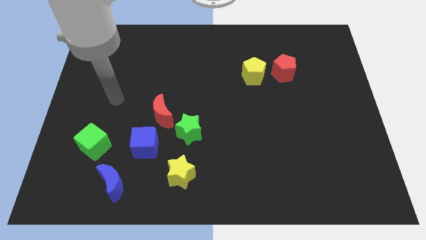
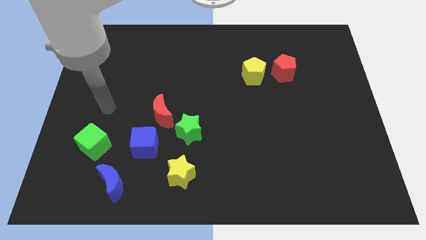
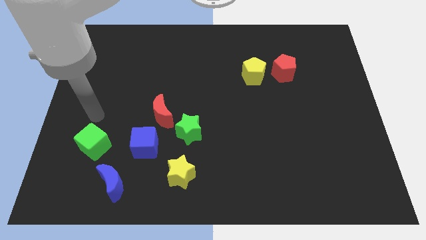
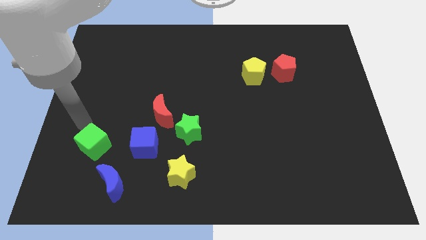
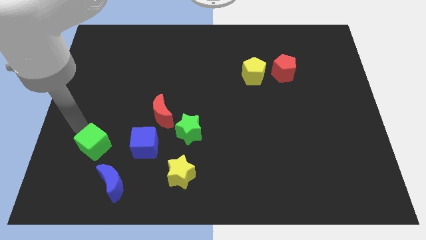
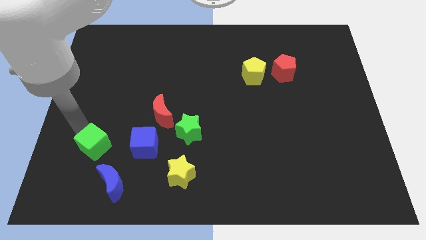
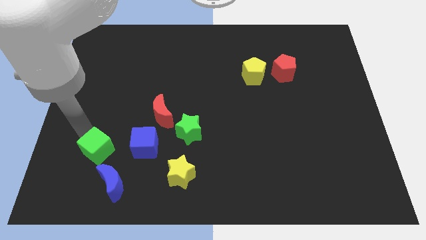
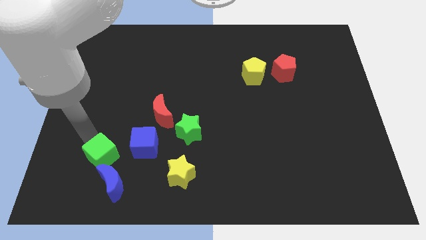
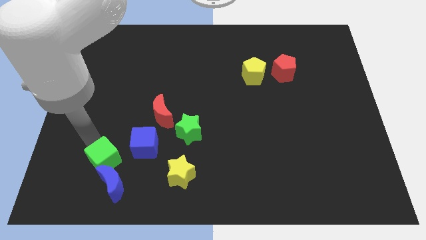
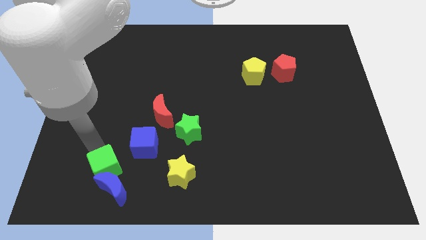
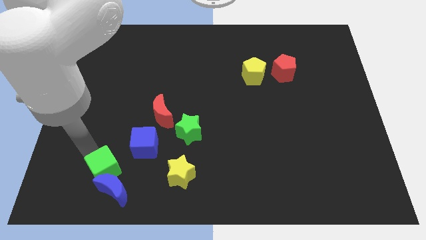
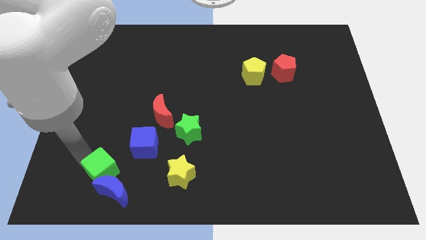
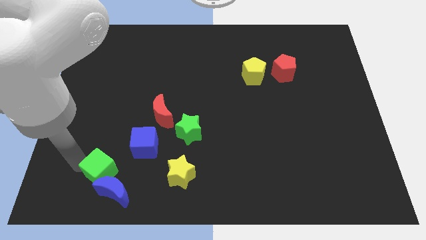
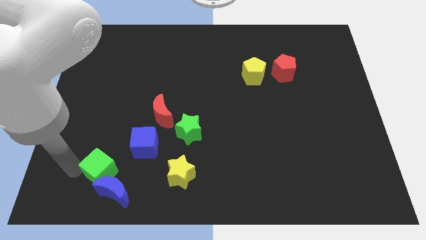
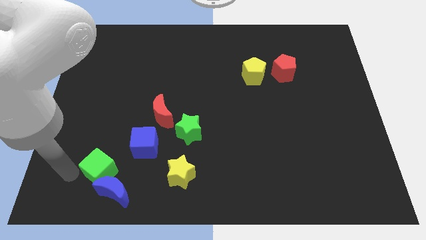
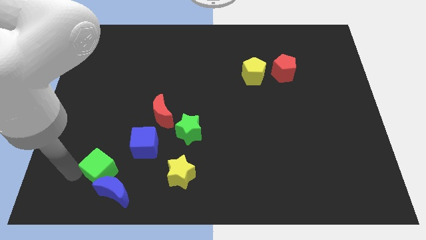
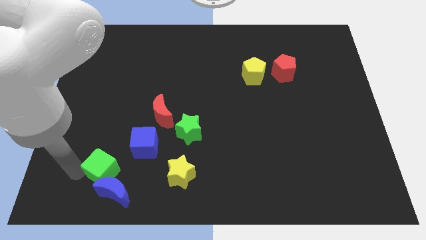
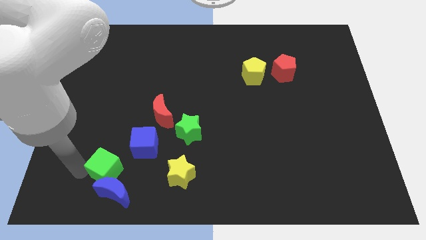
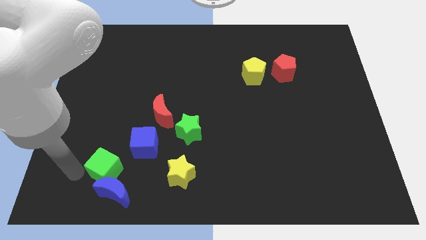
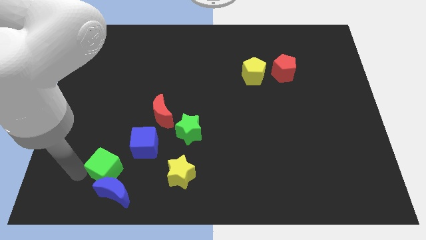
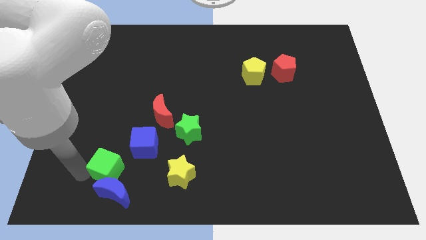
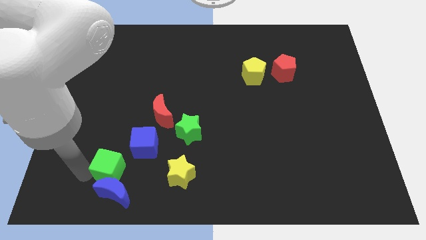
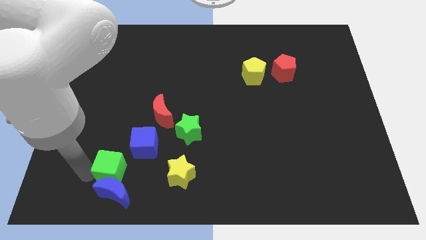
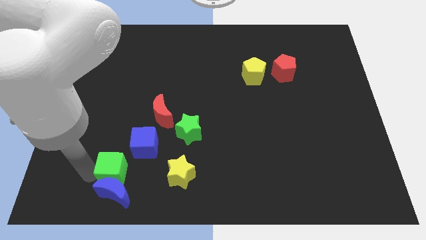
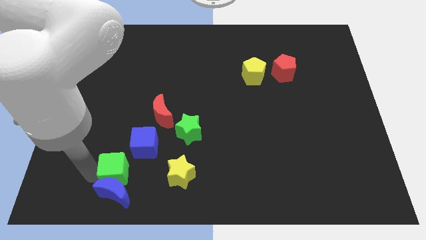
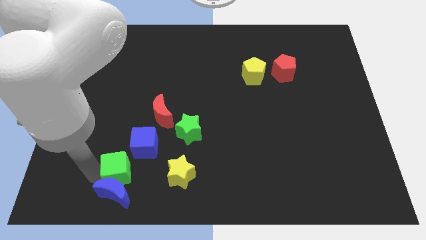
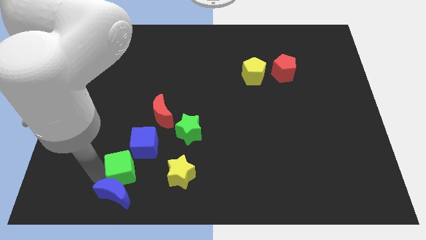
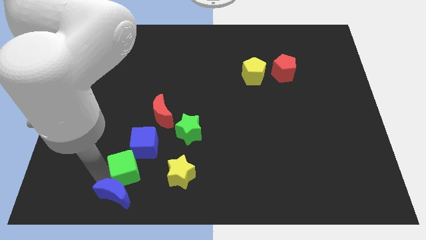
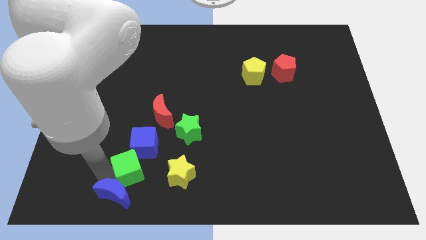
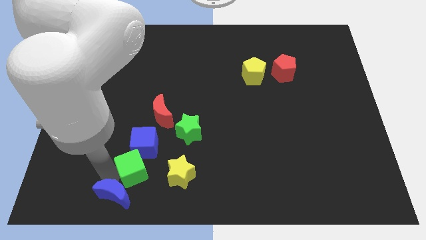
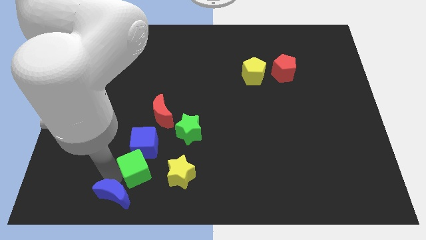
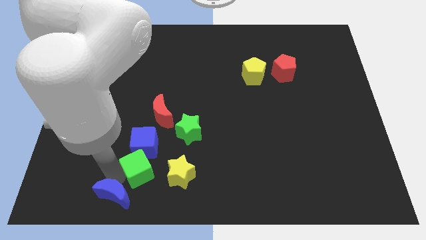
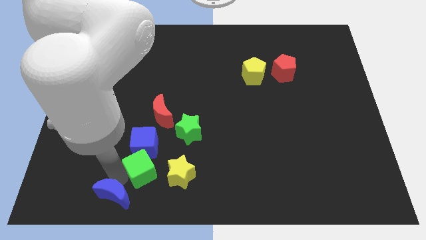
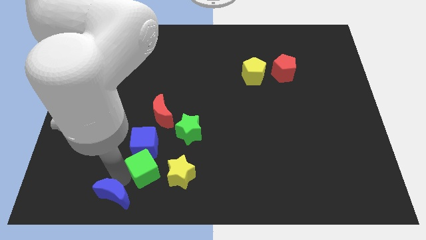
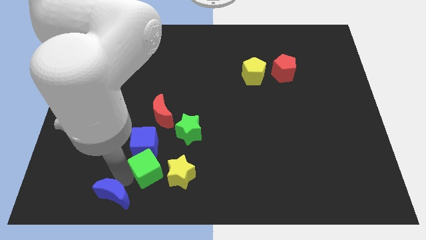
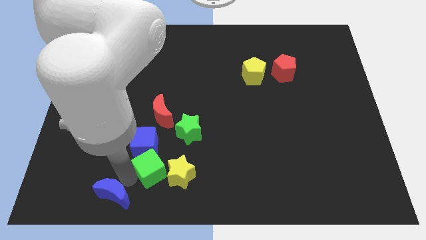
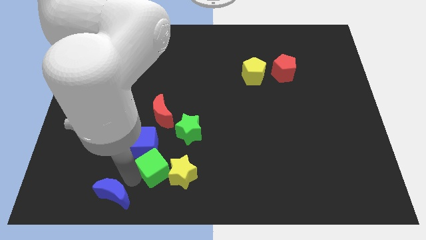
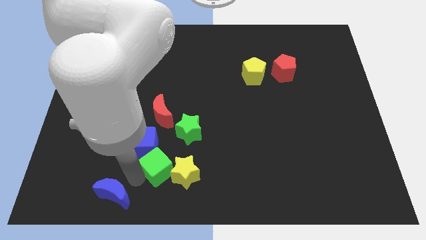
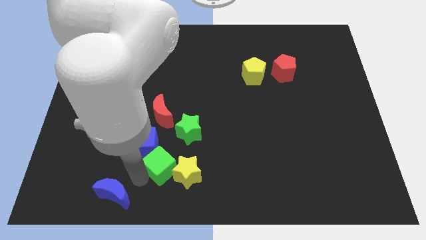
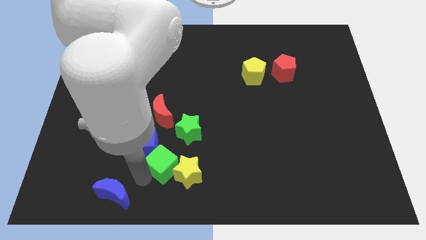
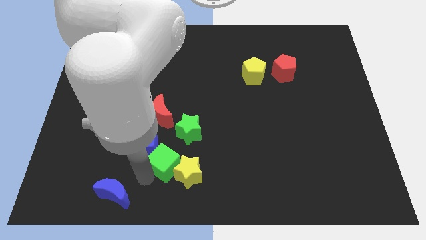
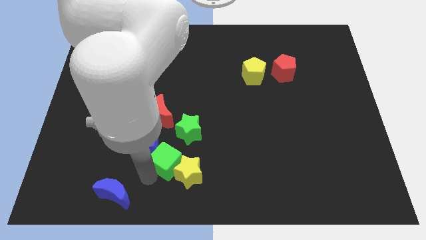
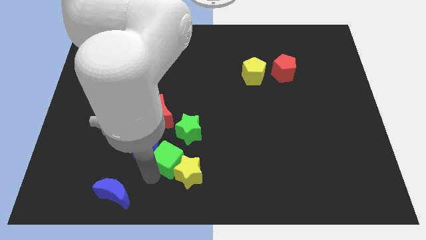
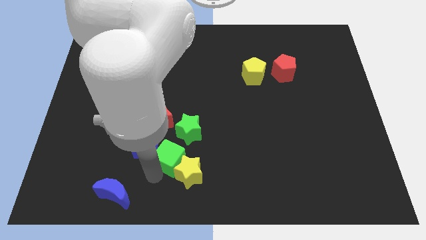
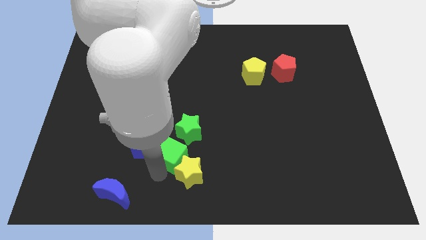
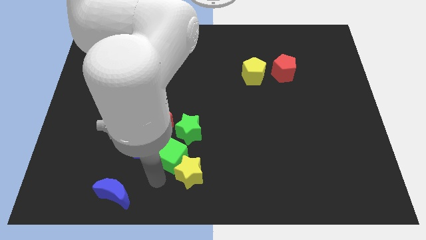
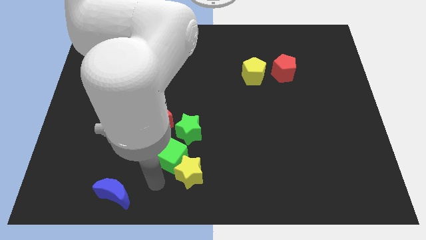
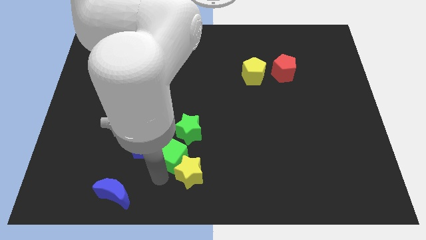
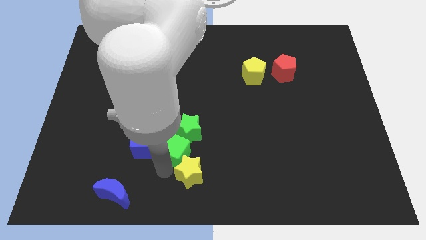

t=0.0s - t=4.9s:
slide the green cube to the green star

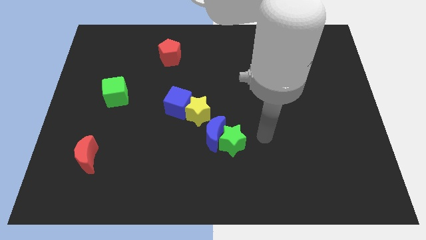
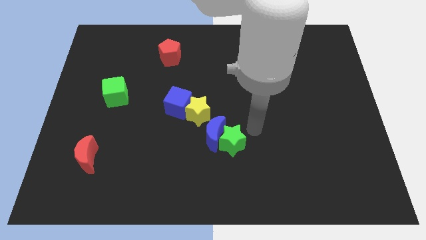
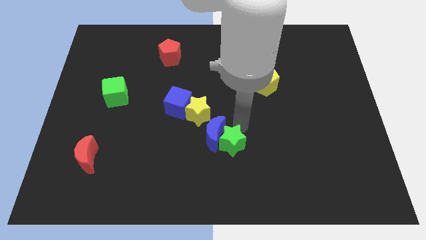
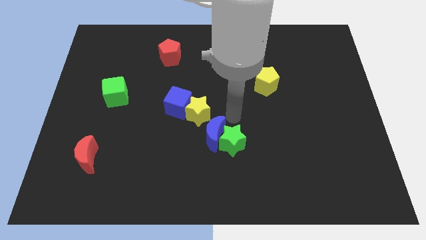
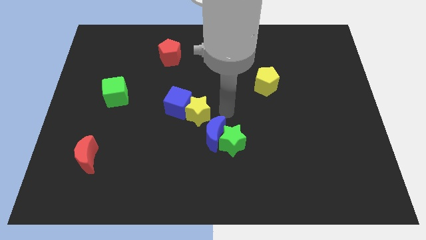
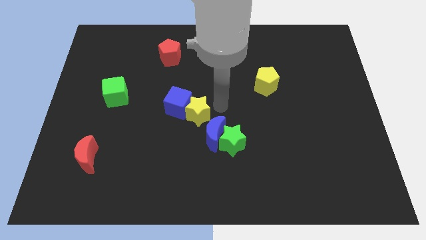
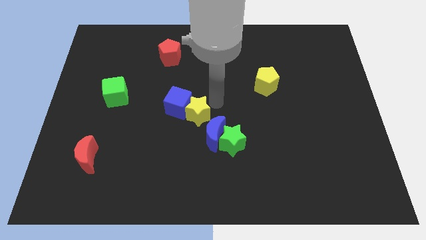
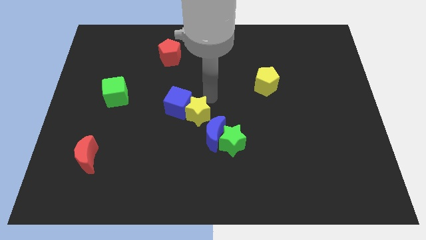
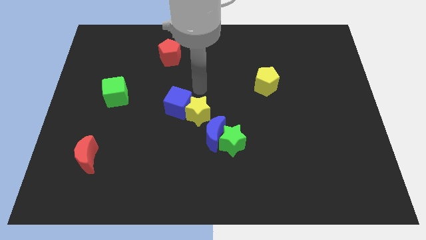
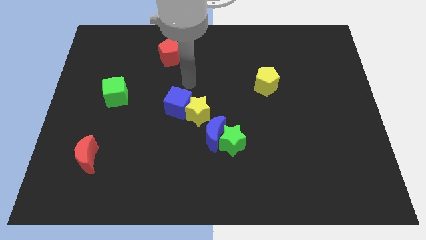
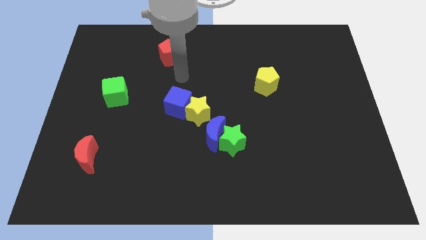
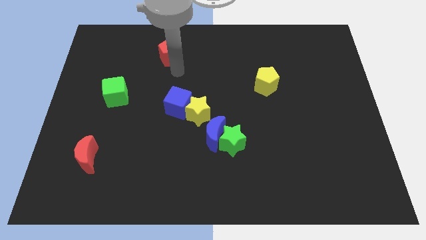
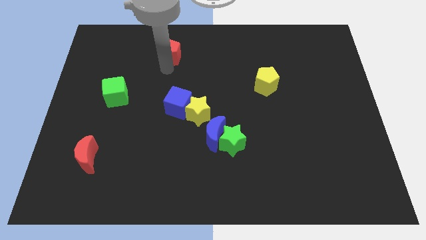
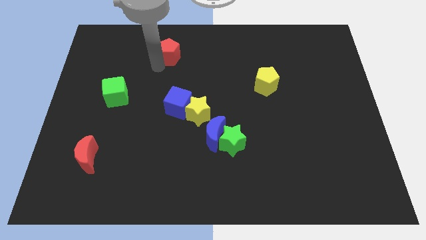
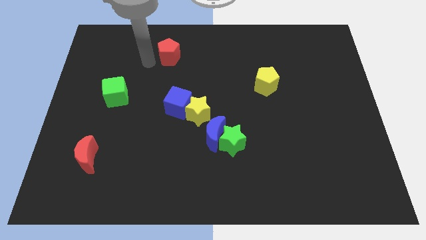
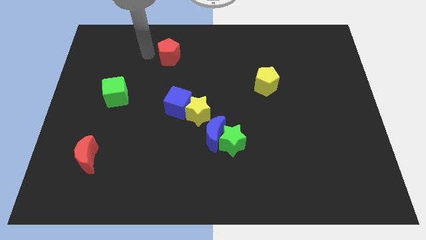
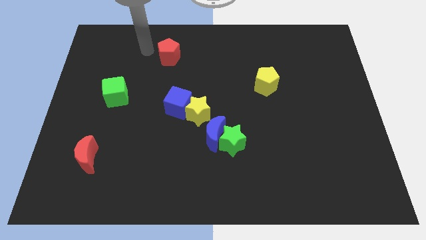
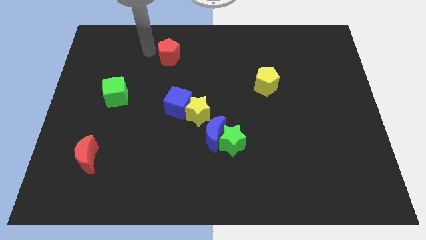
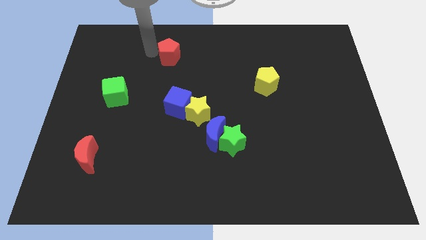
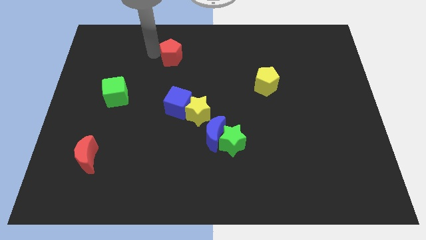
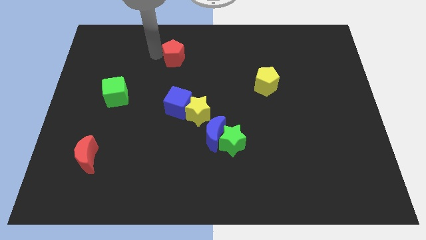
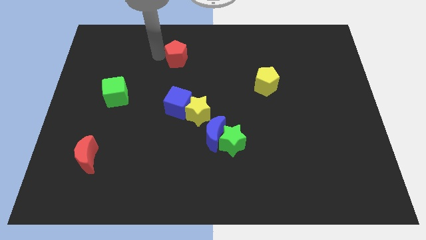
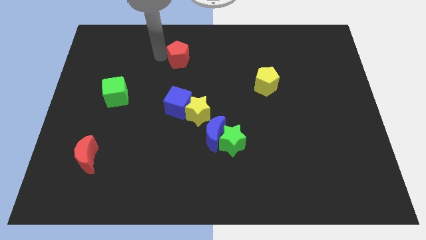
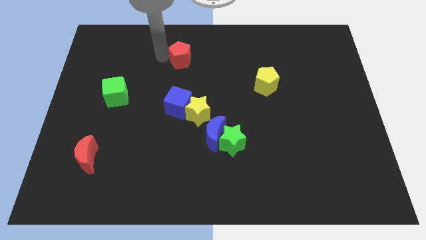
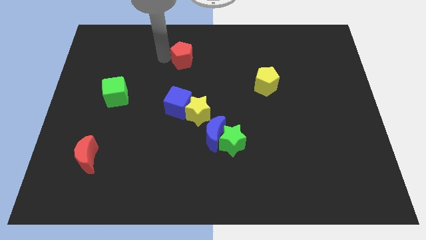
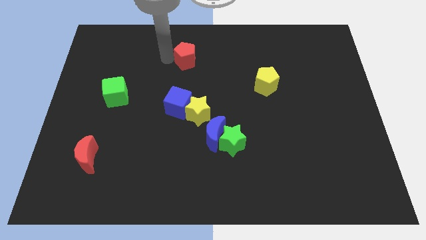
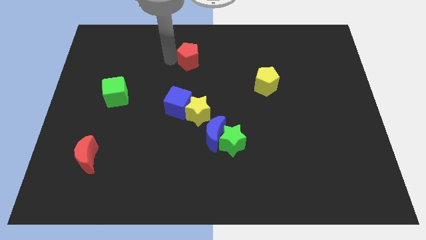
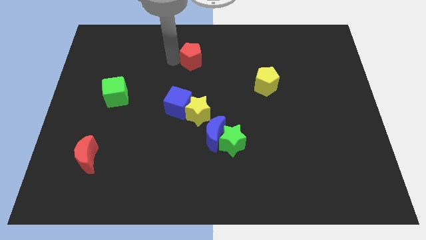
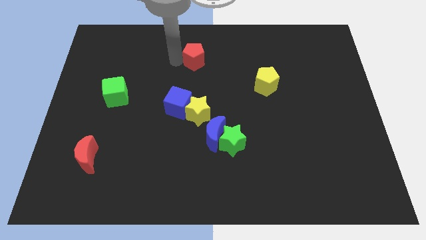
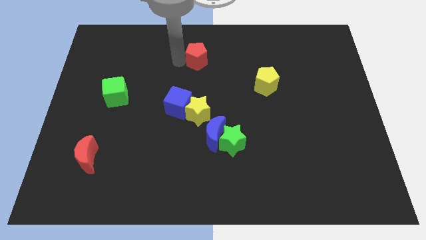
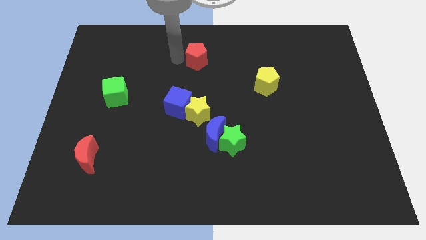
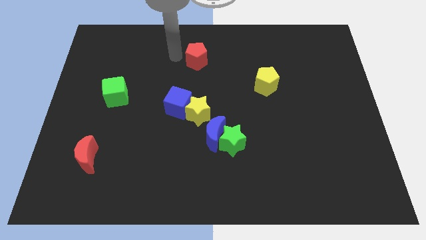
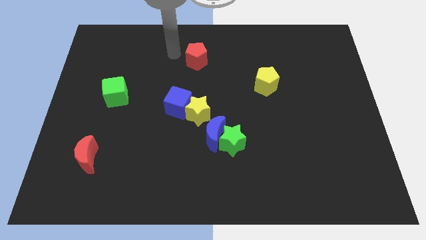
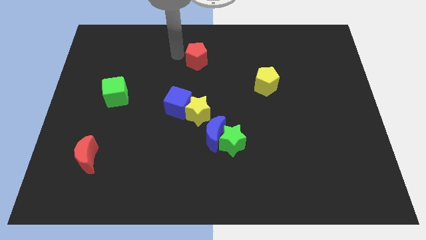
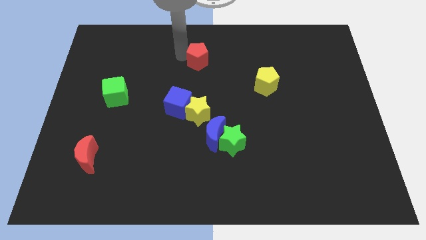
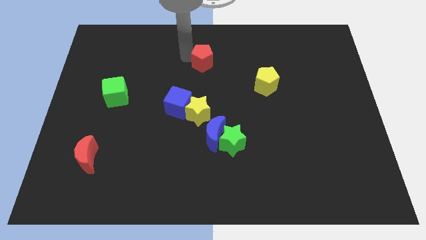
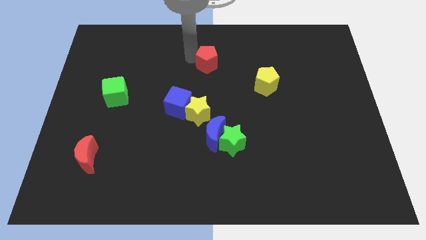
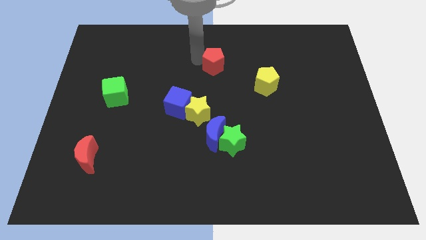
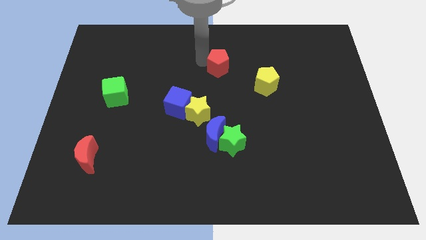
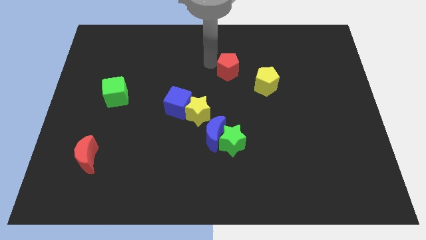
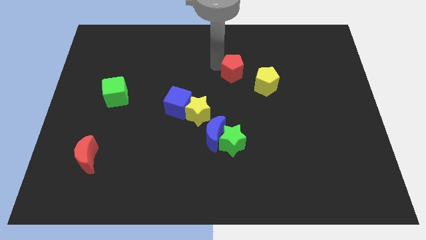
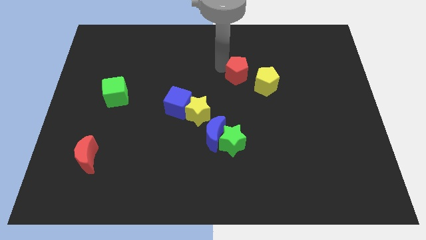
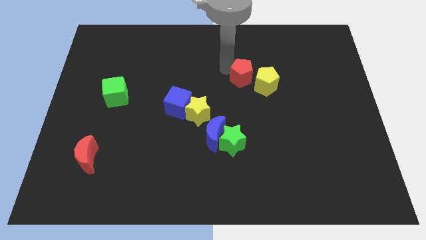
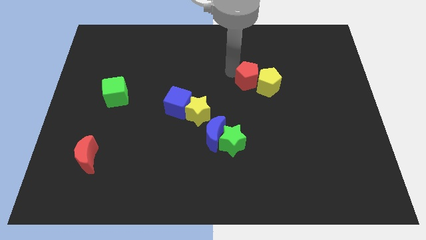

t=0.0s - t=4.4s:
slide the red pentagon towards the yellow pentagon
